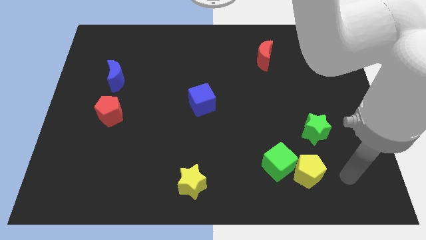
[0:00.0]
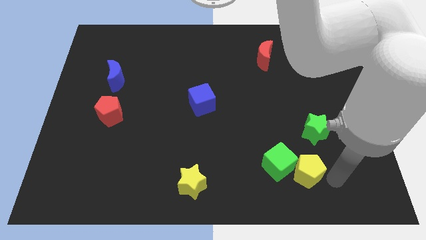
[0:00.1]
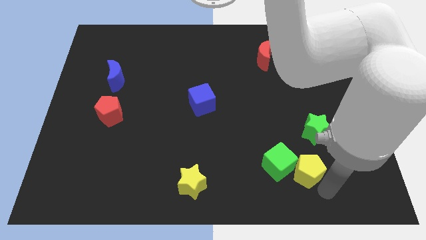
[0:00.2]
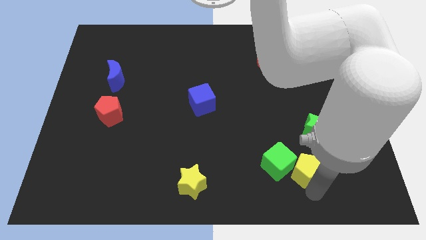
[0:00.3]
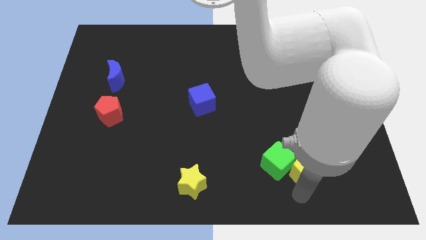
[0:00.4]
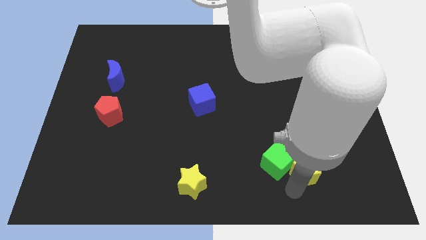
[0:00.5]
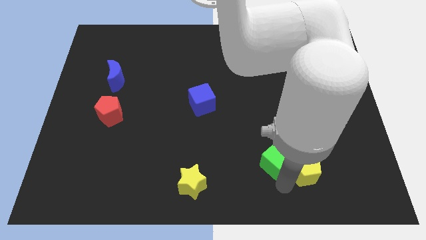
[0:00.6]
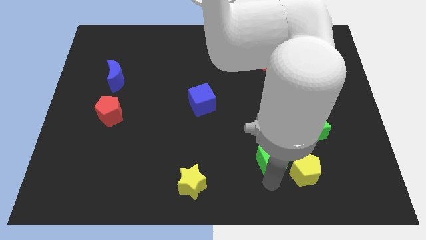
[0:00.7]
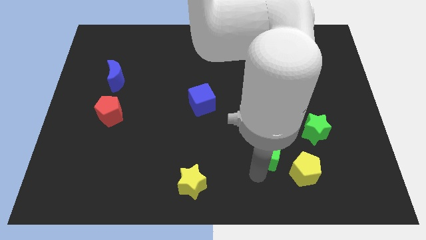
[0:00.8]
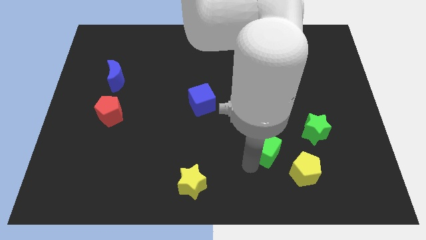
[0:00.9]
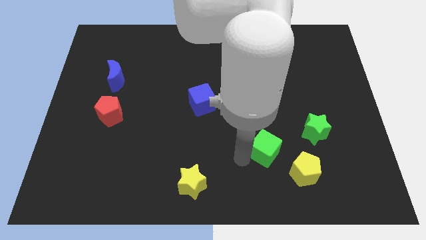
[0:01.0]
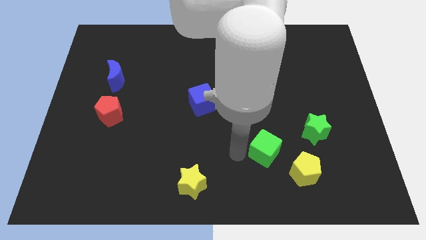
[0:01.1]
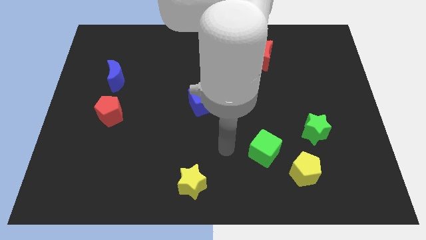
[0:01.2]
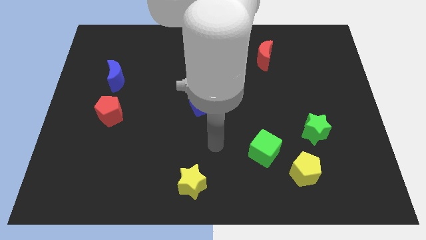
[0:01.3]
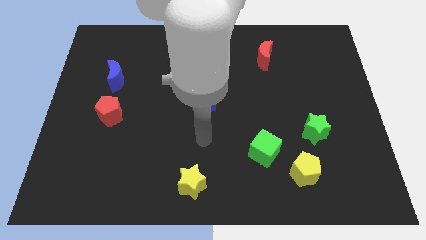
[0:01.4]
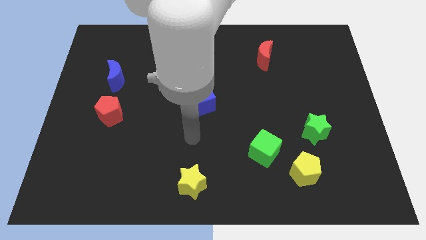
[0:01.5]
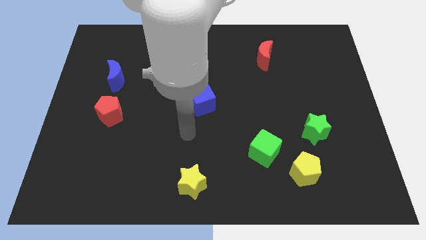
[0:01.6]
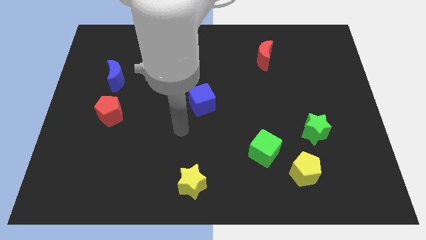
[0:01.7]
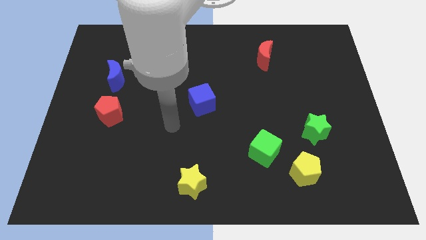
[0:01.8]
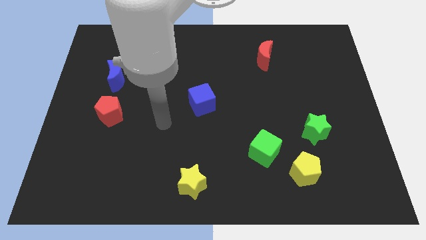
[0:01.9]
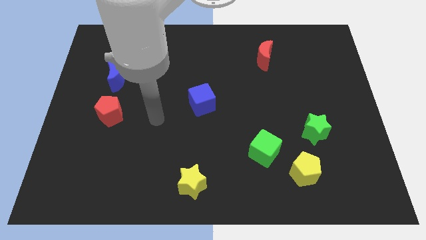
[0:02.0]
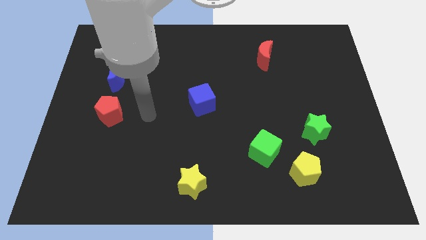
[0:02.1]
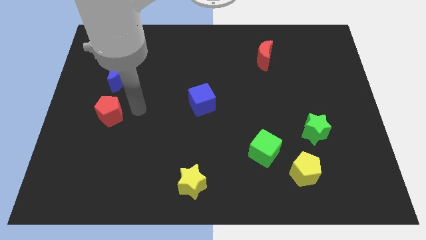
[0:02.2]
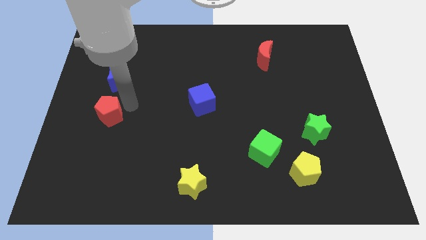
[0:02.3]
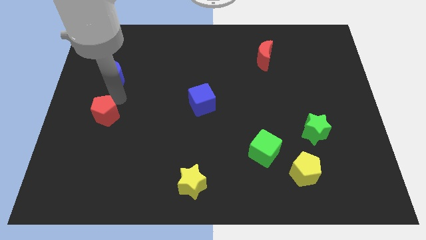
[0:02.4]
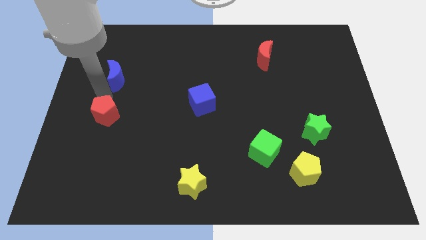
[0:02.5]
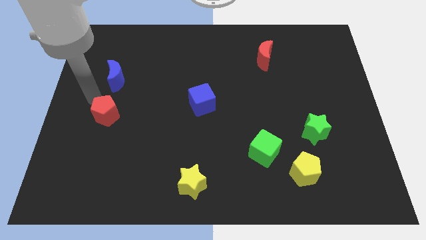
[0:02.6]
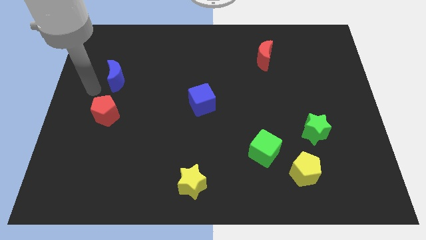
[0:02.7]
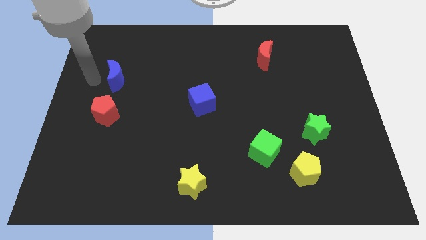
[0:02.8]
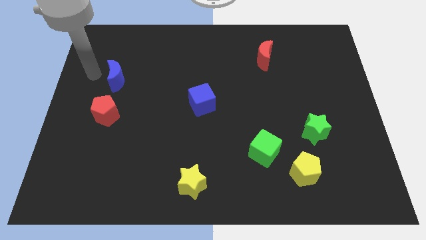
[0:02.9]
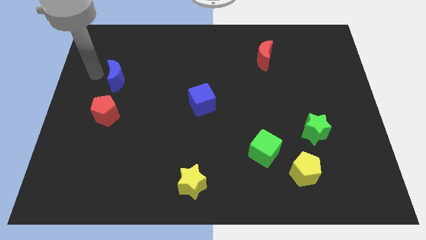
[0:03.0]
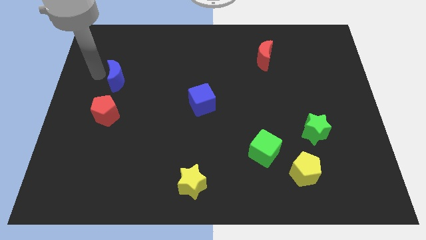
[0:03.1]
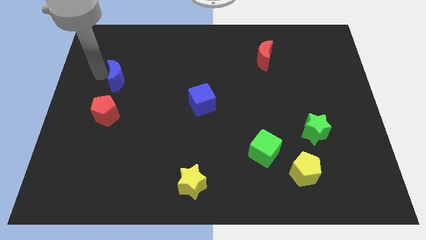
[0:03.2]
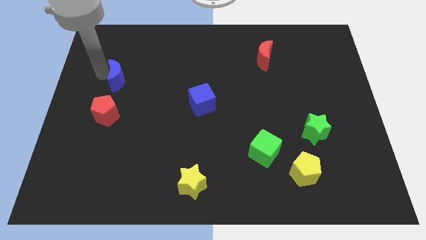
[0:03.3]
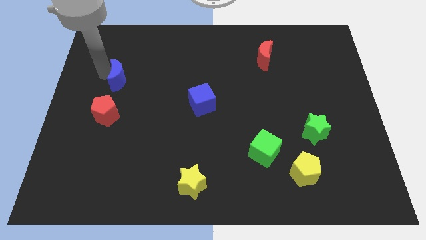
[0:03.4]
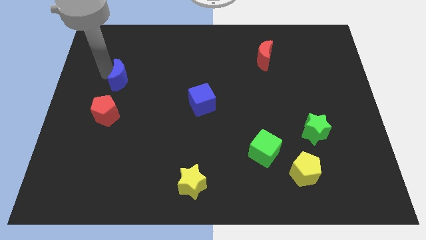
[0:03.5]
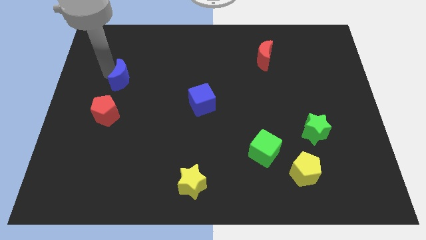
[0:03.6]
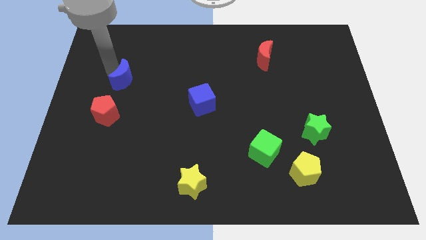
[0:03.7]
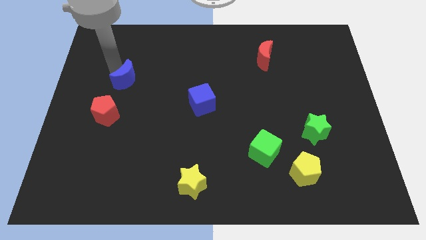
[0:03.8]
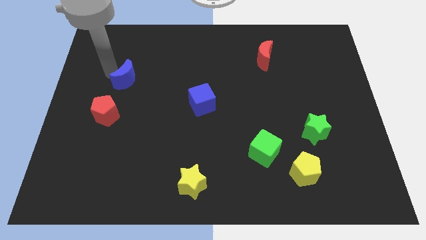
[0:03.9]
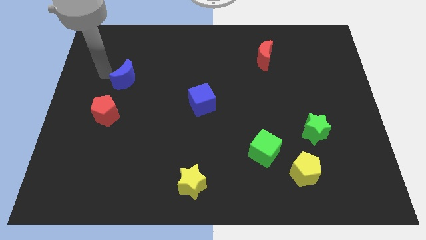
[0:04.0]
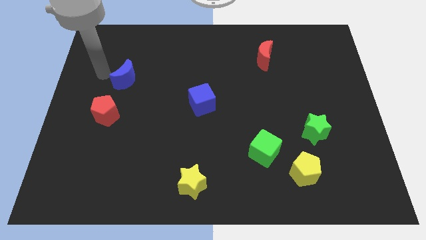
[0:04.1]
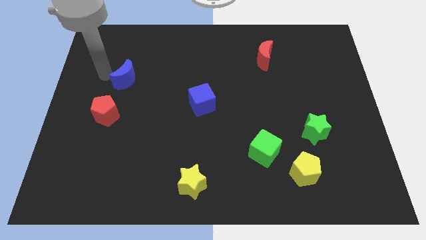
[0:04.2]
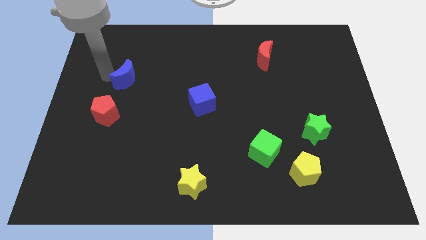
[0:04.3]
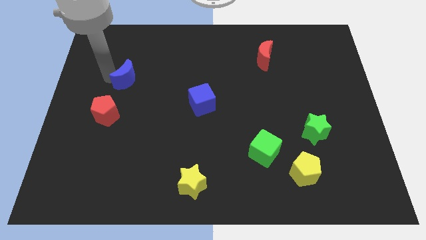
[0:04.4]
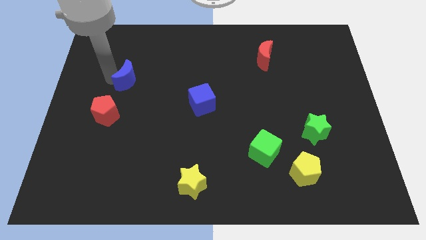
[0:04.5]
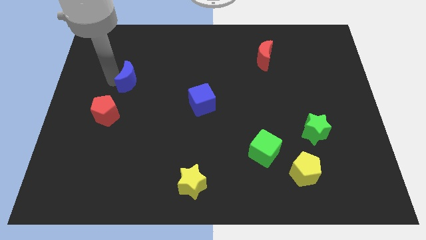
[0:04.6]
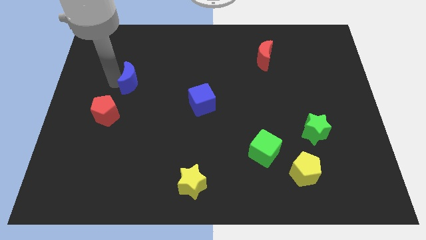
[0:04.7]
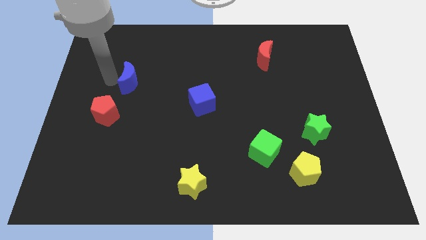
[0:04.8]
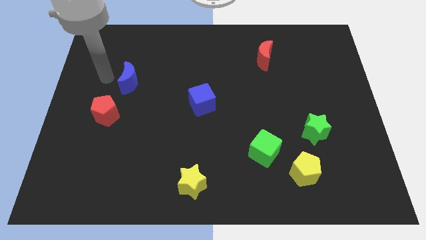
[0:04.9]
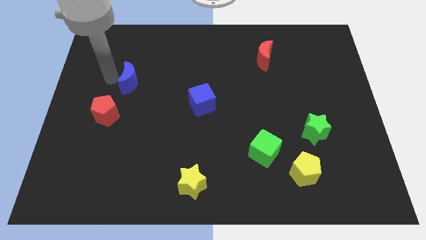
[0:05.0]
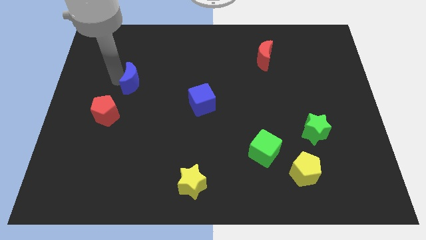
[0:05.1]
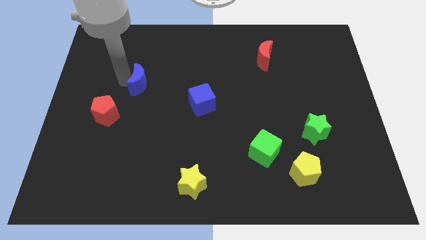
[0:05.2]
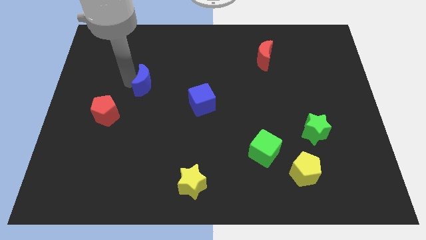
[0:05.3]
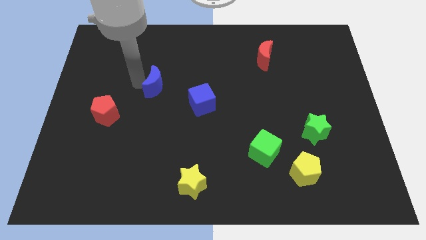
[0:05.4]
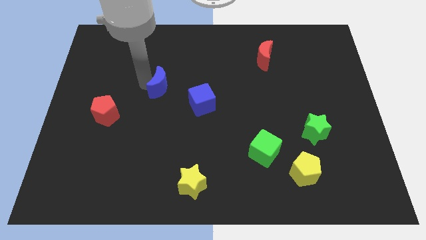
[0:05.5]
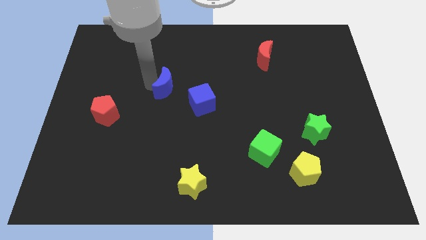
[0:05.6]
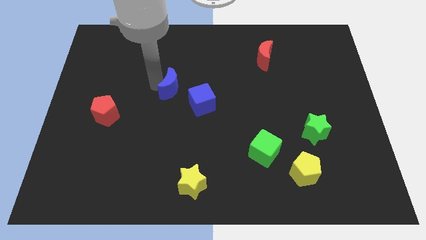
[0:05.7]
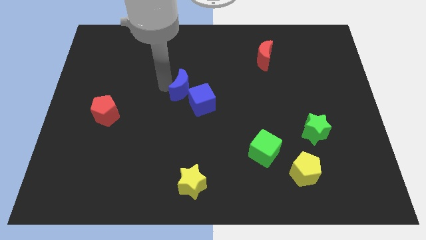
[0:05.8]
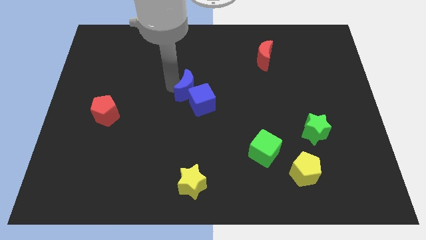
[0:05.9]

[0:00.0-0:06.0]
slide the blue moon next to the blue cube

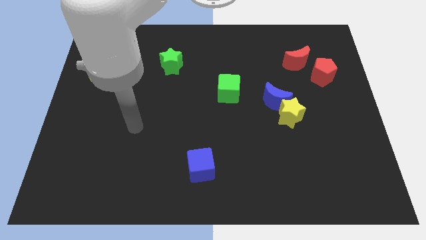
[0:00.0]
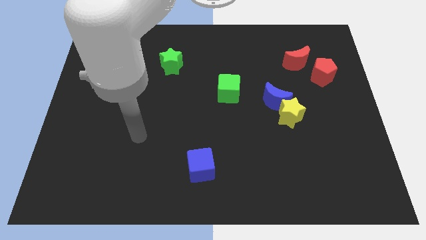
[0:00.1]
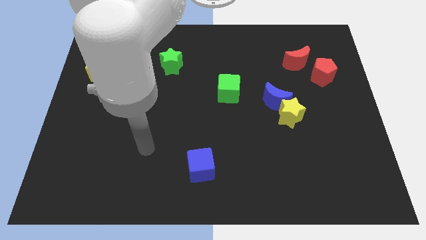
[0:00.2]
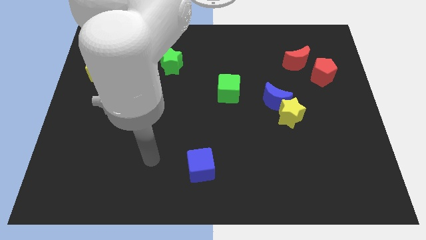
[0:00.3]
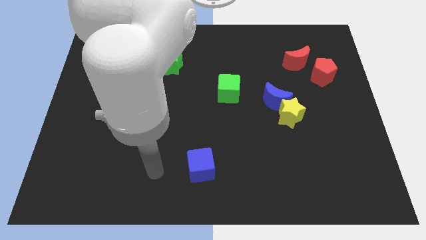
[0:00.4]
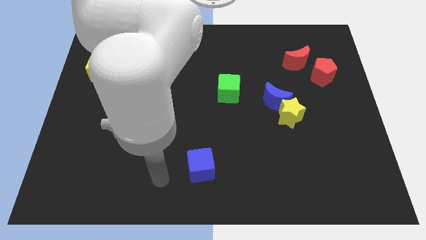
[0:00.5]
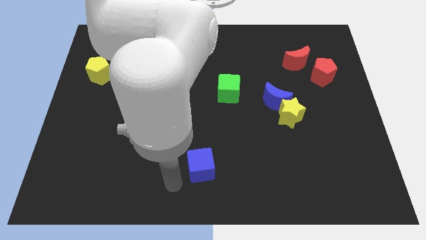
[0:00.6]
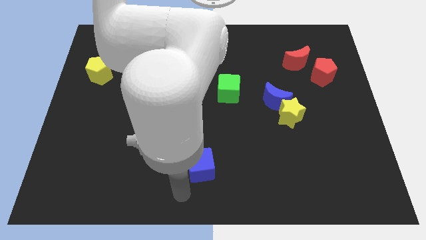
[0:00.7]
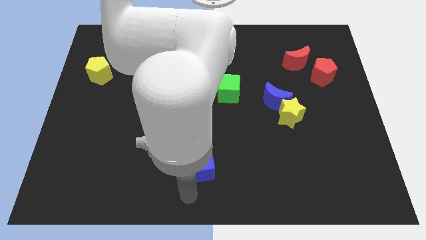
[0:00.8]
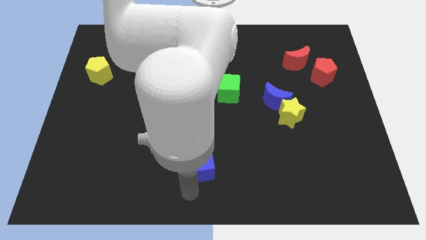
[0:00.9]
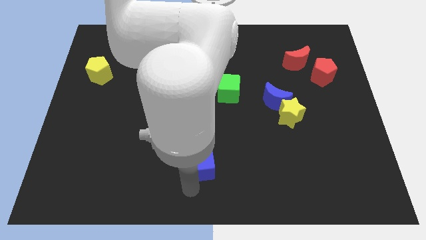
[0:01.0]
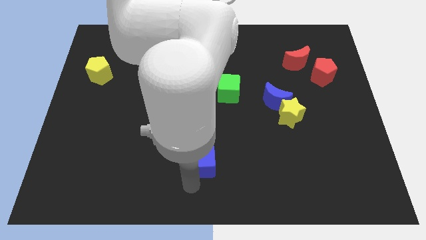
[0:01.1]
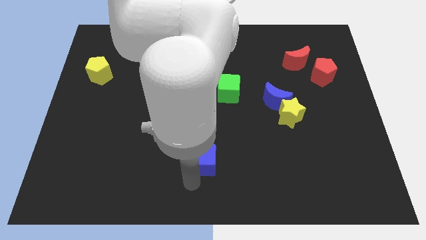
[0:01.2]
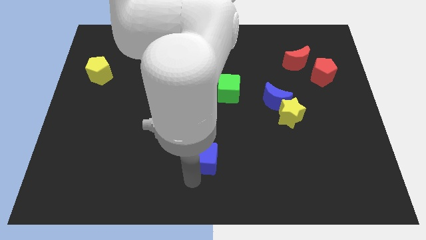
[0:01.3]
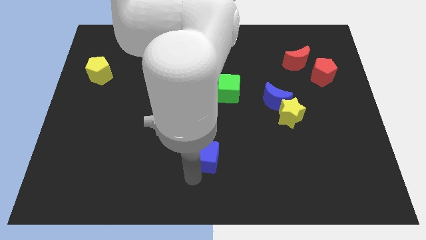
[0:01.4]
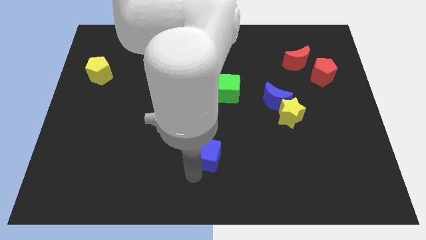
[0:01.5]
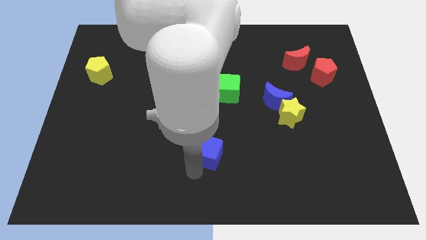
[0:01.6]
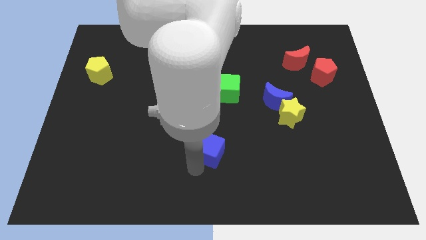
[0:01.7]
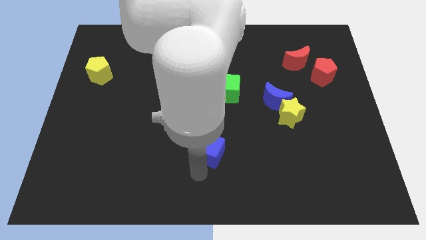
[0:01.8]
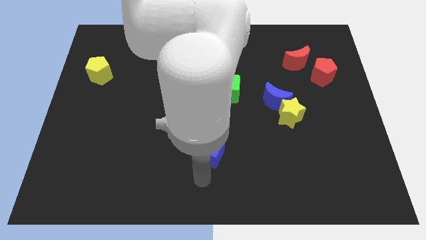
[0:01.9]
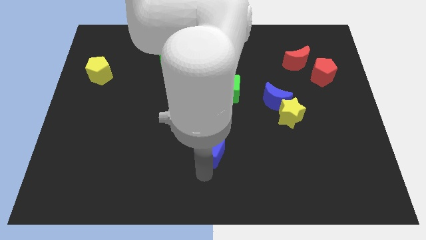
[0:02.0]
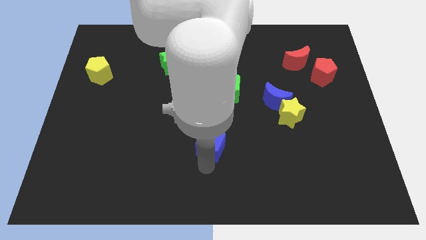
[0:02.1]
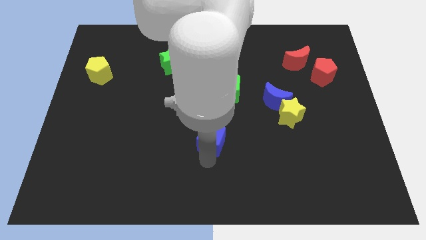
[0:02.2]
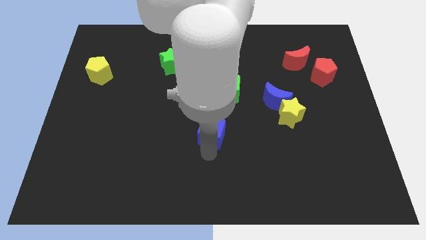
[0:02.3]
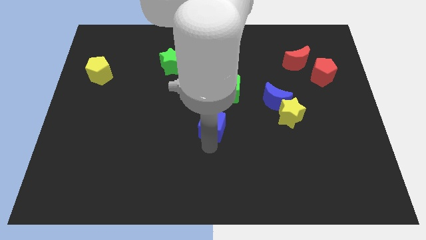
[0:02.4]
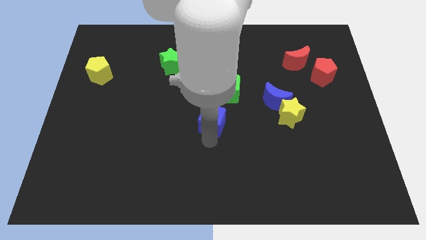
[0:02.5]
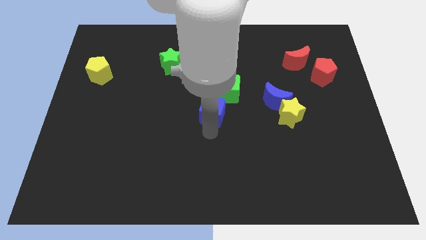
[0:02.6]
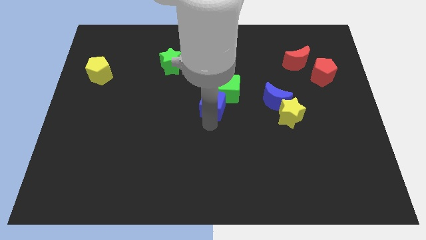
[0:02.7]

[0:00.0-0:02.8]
slide the blue cube to the green cube
